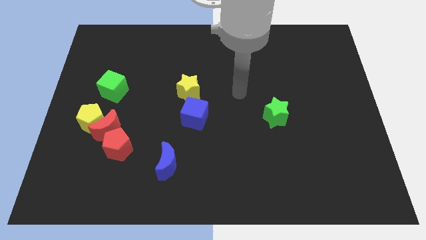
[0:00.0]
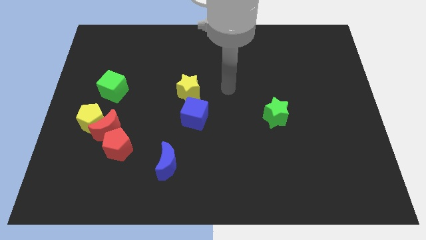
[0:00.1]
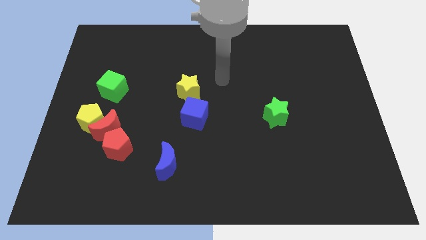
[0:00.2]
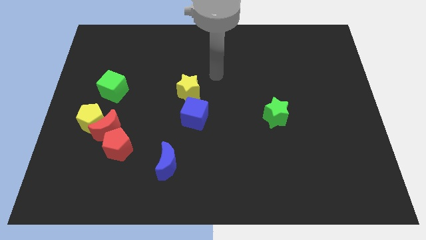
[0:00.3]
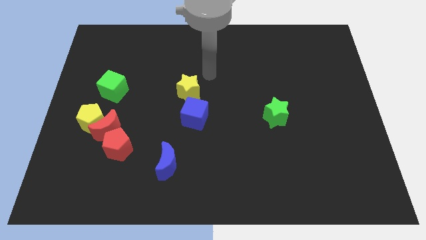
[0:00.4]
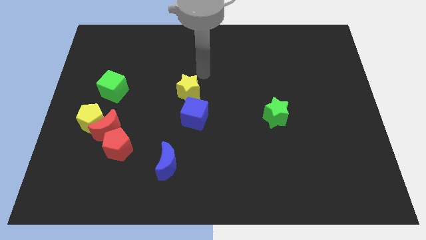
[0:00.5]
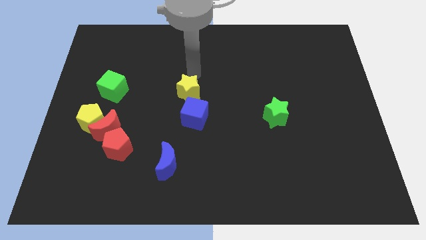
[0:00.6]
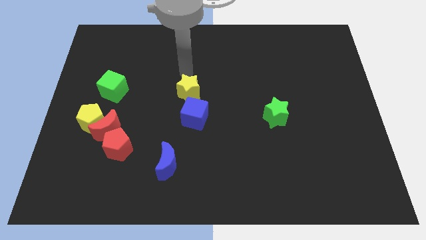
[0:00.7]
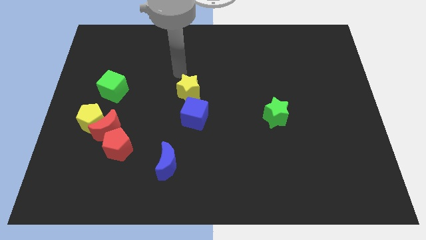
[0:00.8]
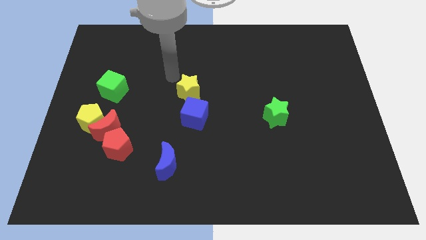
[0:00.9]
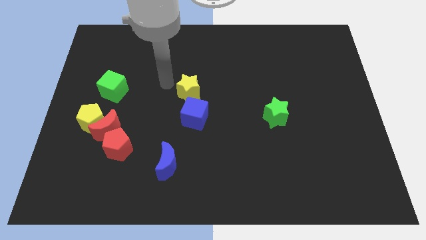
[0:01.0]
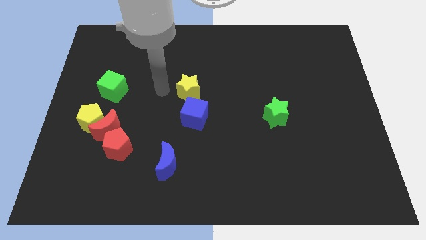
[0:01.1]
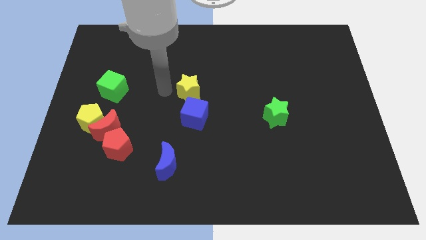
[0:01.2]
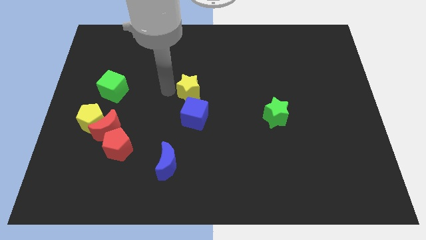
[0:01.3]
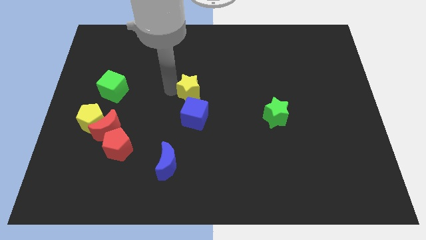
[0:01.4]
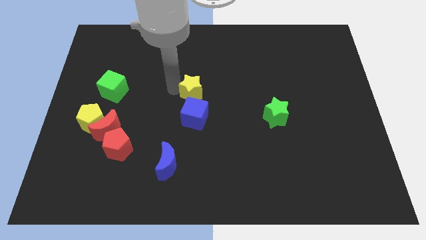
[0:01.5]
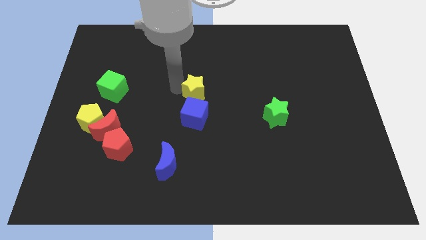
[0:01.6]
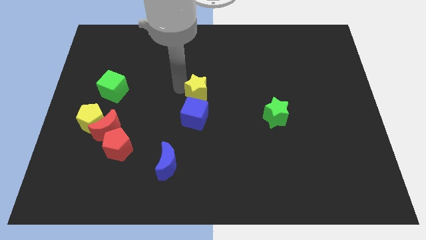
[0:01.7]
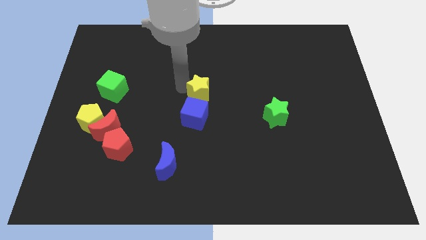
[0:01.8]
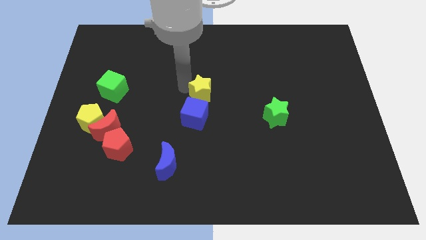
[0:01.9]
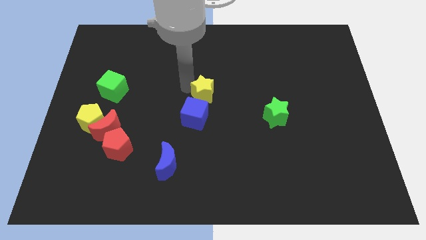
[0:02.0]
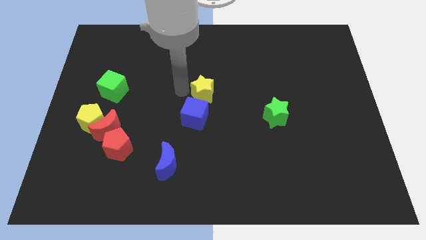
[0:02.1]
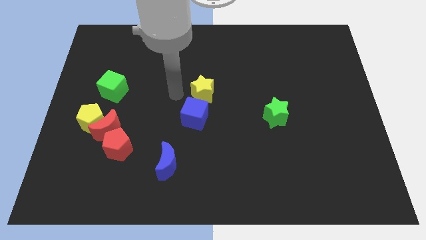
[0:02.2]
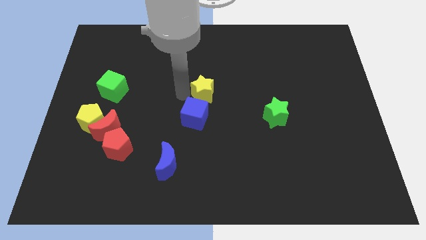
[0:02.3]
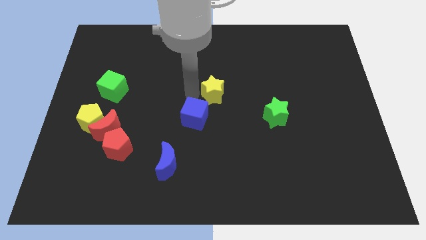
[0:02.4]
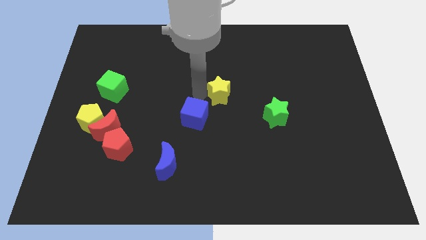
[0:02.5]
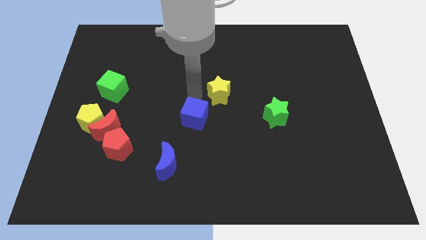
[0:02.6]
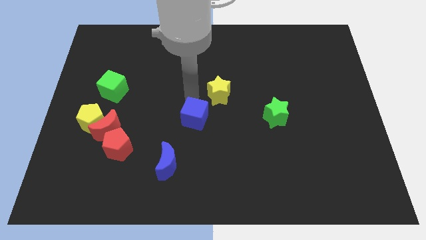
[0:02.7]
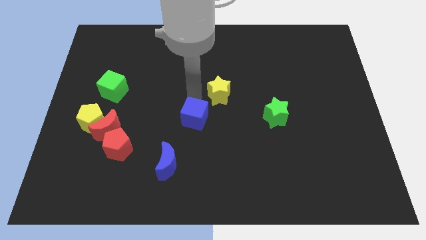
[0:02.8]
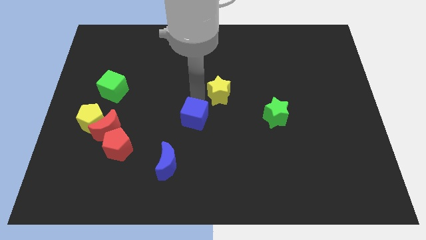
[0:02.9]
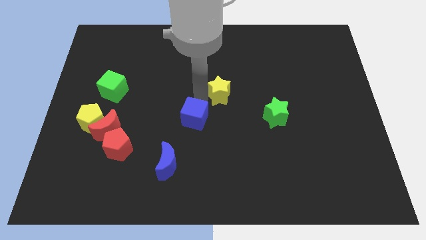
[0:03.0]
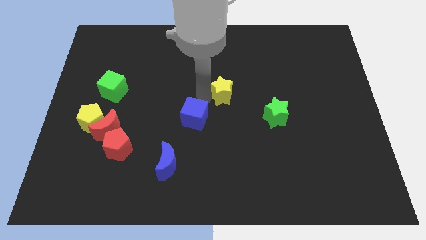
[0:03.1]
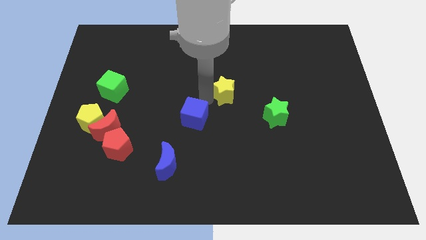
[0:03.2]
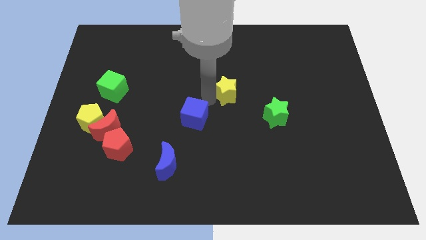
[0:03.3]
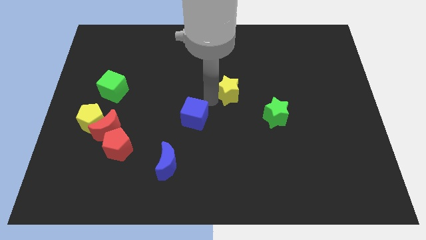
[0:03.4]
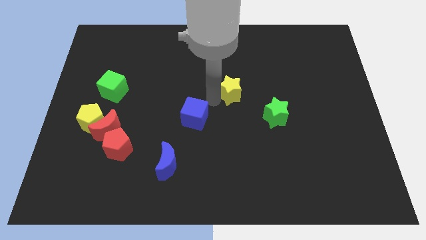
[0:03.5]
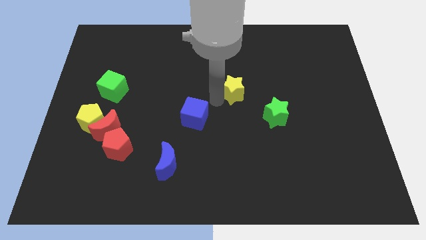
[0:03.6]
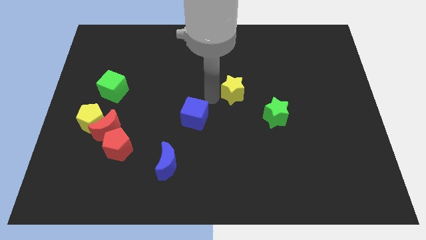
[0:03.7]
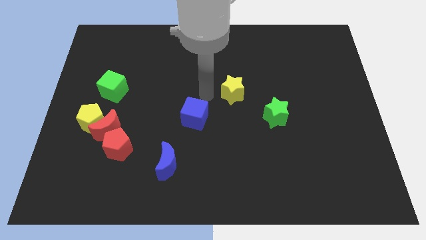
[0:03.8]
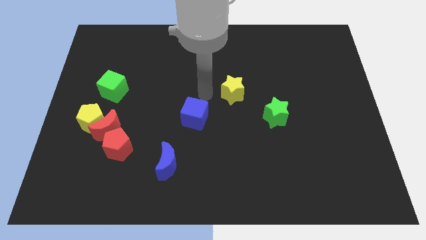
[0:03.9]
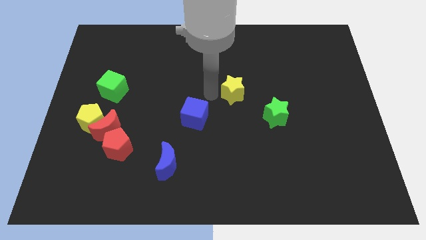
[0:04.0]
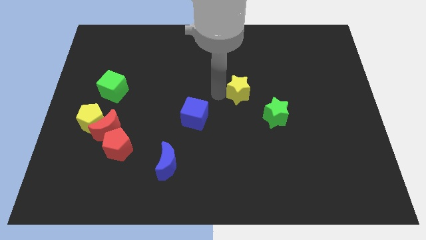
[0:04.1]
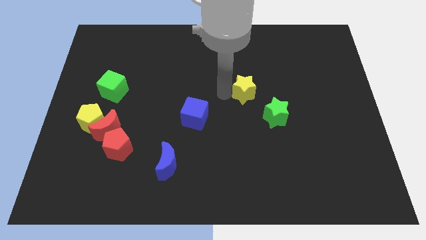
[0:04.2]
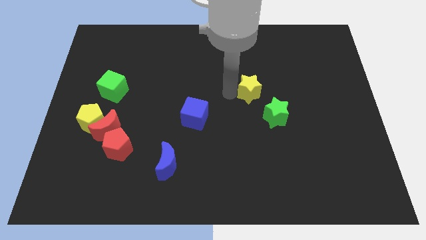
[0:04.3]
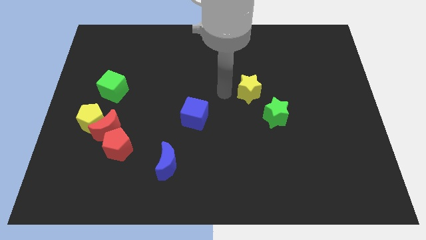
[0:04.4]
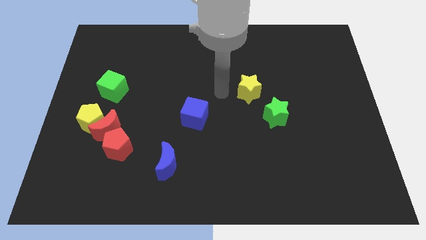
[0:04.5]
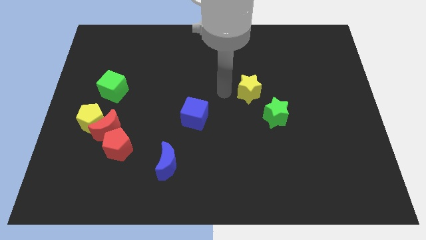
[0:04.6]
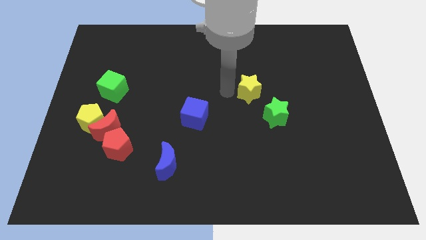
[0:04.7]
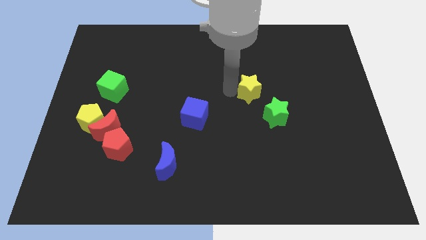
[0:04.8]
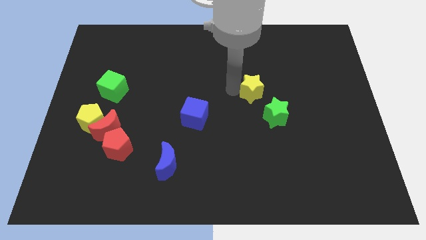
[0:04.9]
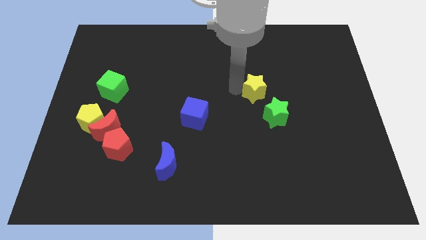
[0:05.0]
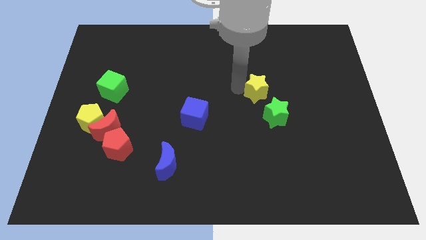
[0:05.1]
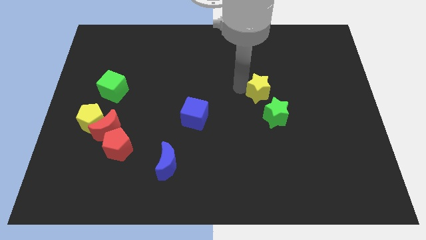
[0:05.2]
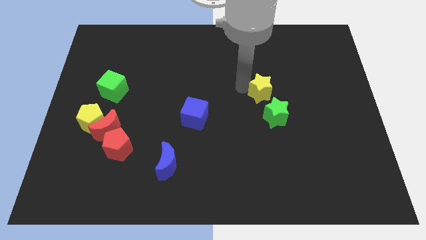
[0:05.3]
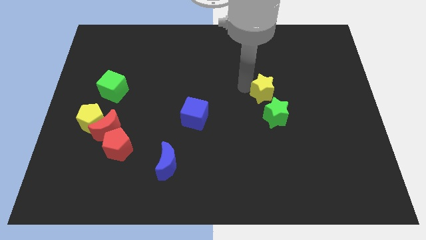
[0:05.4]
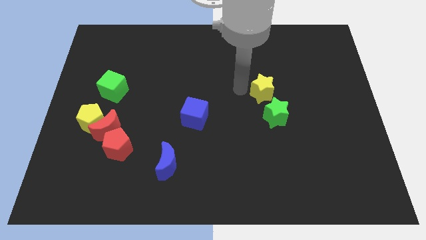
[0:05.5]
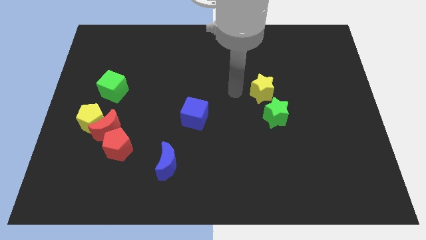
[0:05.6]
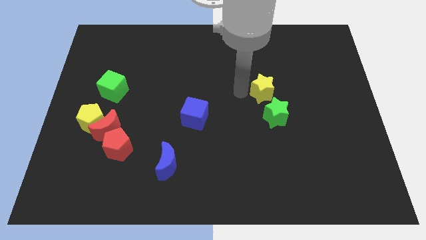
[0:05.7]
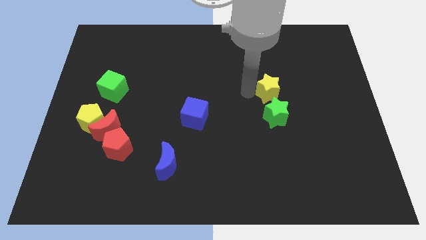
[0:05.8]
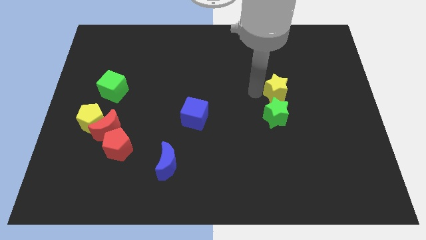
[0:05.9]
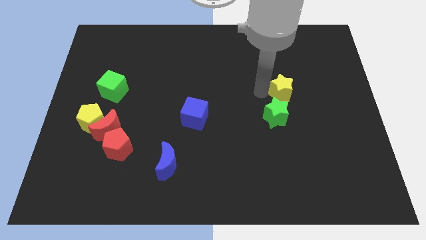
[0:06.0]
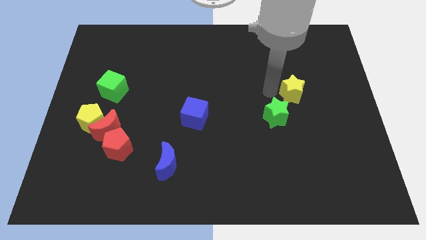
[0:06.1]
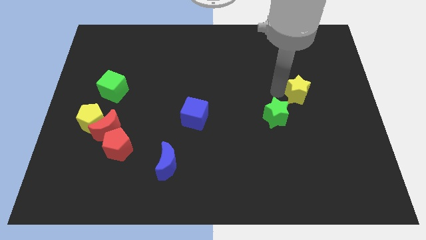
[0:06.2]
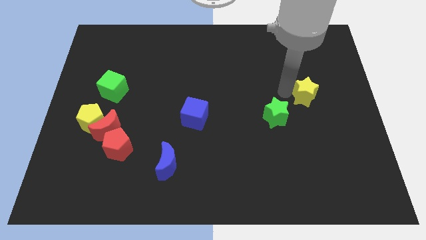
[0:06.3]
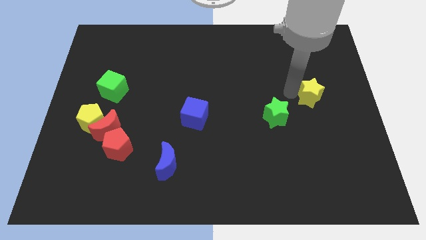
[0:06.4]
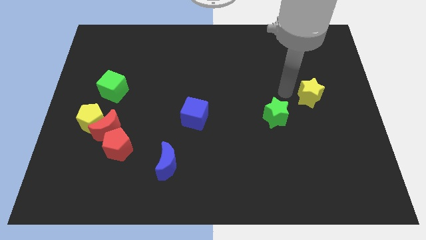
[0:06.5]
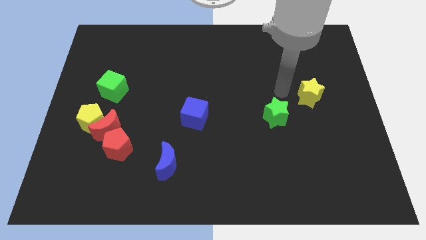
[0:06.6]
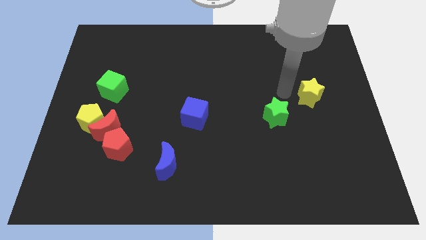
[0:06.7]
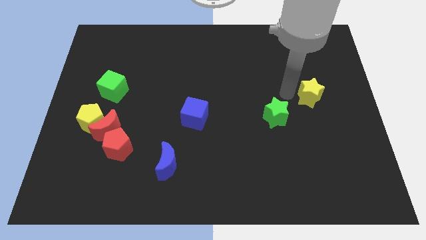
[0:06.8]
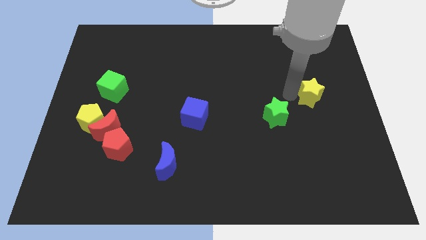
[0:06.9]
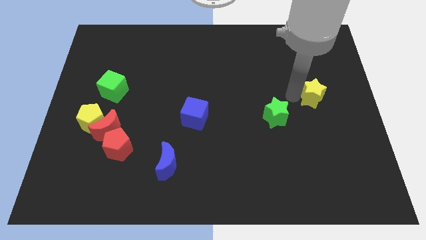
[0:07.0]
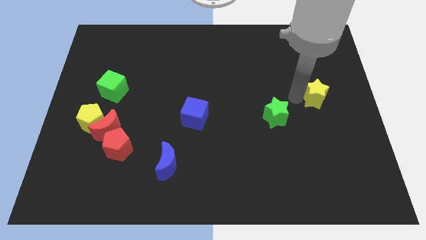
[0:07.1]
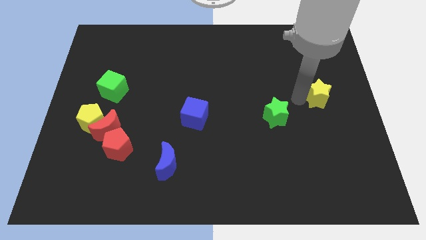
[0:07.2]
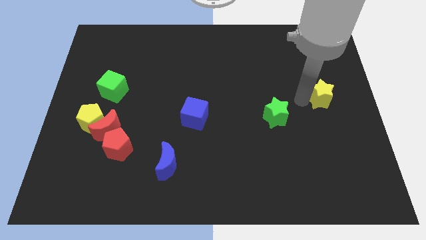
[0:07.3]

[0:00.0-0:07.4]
move the yellow star to the right side
